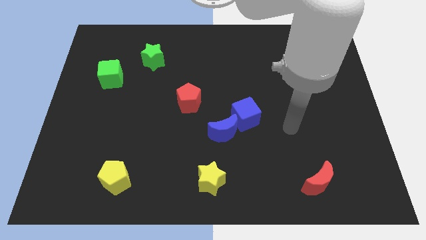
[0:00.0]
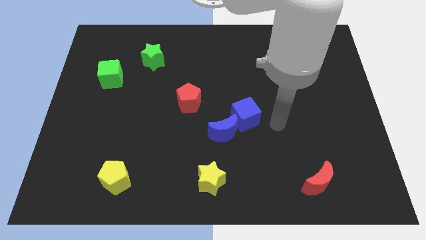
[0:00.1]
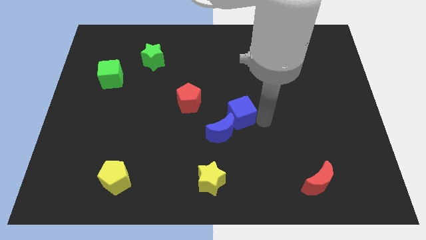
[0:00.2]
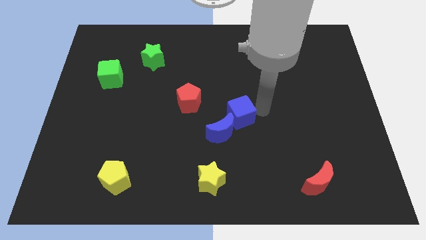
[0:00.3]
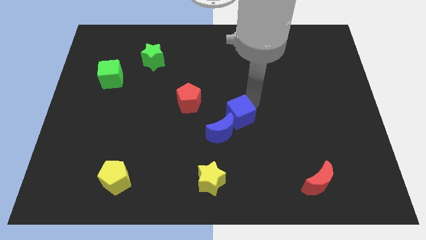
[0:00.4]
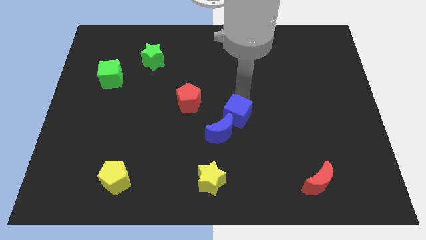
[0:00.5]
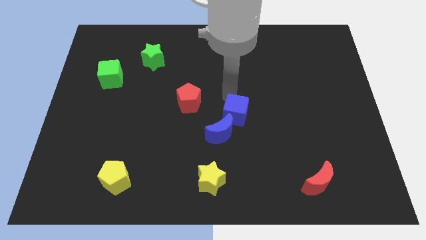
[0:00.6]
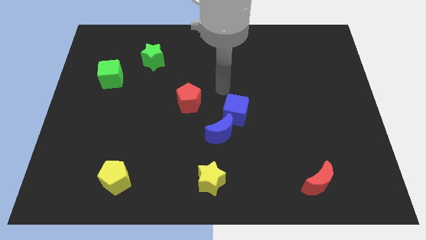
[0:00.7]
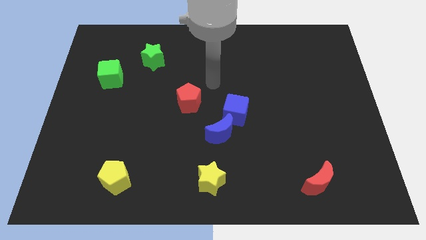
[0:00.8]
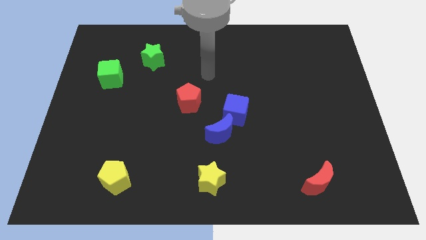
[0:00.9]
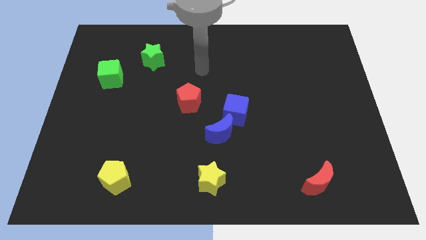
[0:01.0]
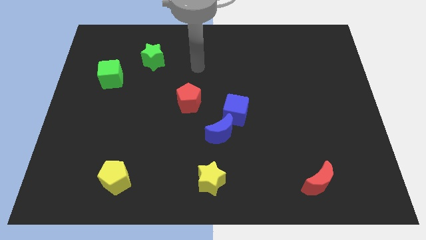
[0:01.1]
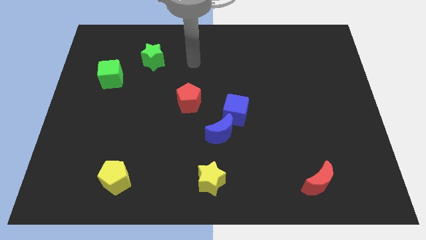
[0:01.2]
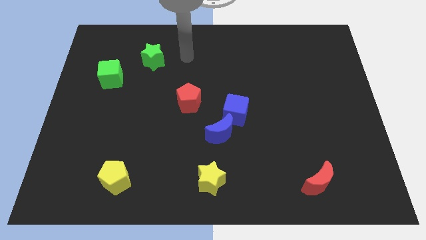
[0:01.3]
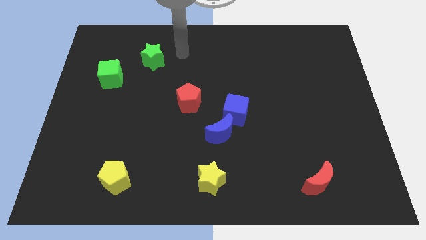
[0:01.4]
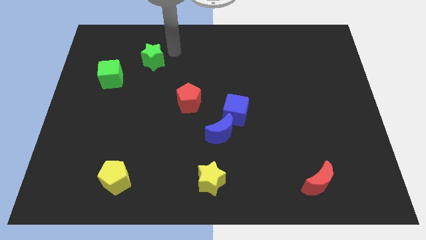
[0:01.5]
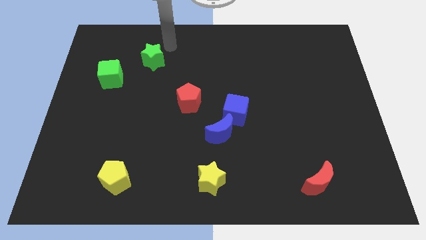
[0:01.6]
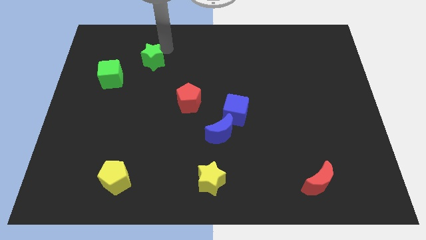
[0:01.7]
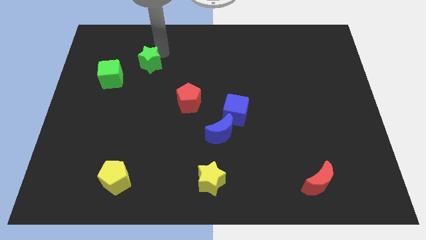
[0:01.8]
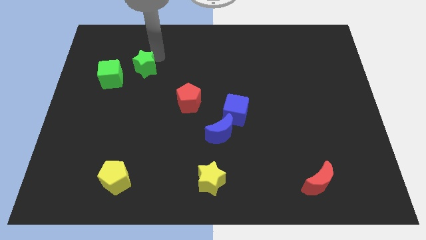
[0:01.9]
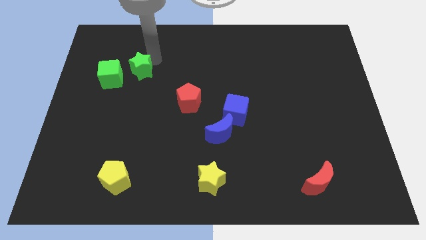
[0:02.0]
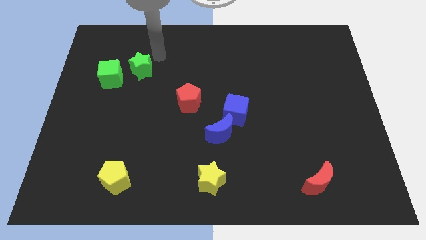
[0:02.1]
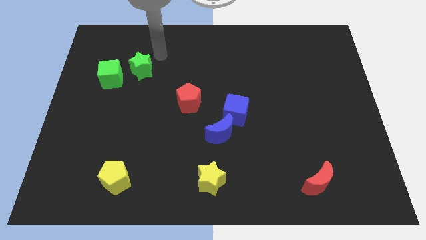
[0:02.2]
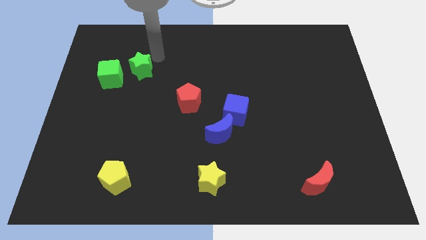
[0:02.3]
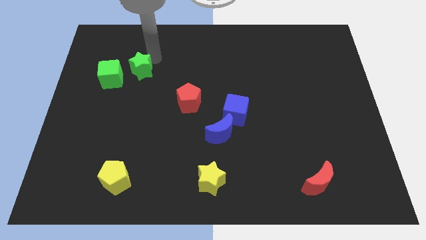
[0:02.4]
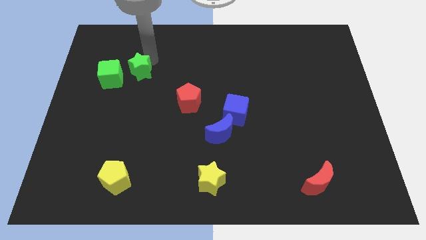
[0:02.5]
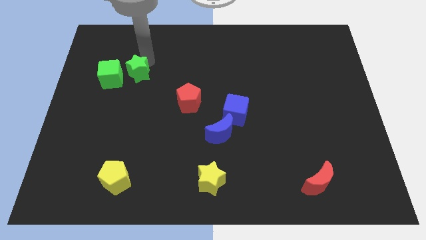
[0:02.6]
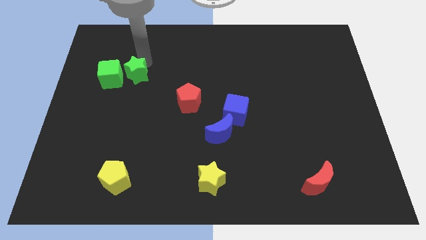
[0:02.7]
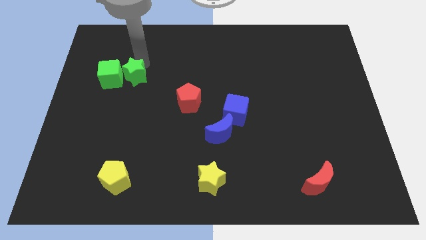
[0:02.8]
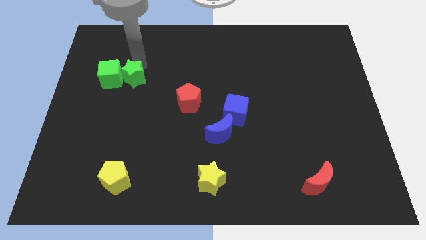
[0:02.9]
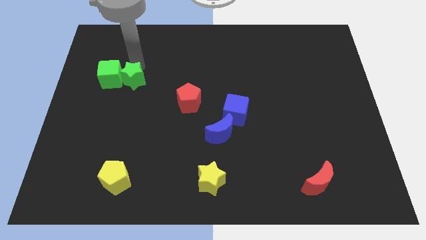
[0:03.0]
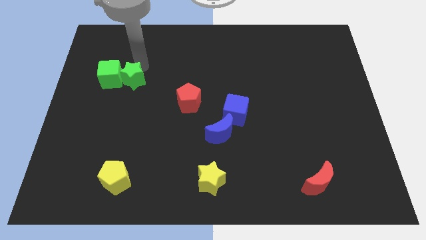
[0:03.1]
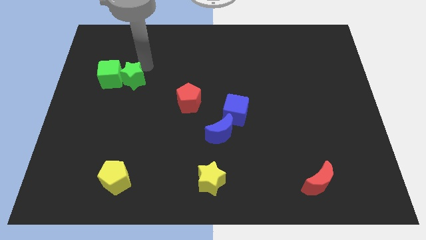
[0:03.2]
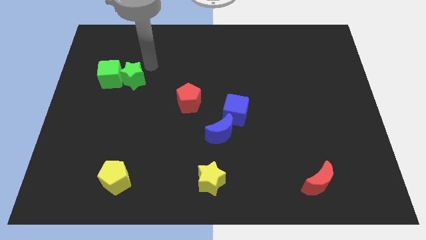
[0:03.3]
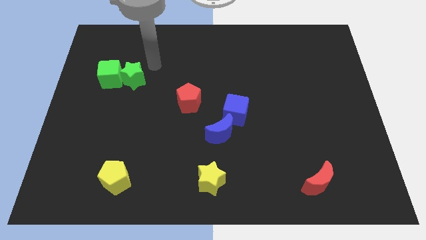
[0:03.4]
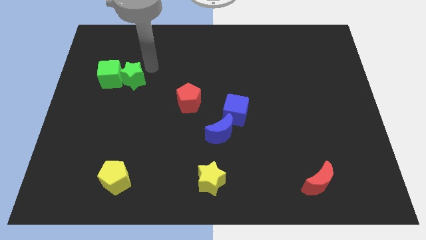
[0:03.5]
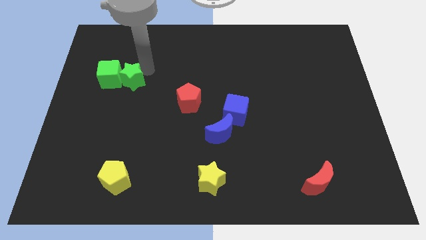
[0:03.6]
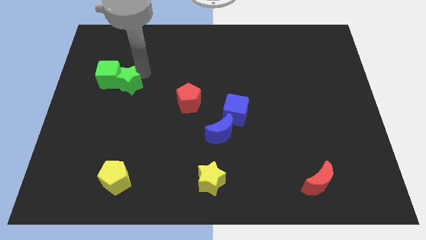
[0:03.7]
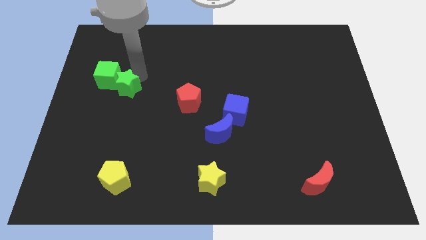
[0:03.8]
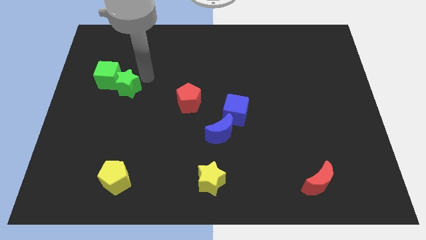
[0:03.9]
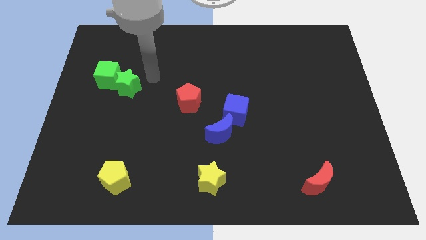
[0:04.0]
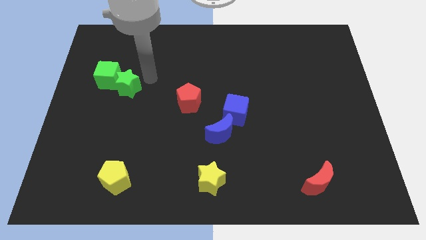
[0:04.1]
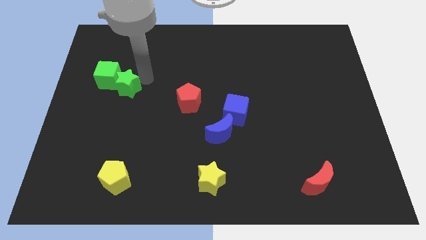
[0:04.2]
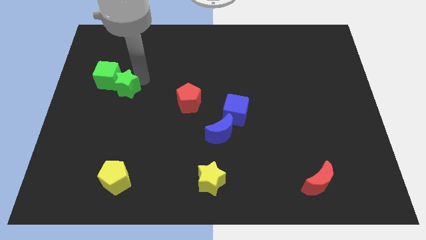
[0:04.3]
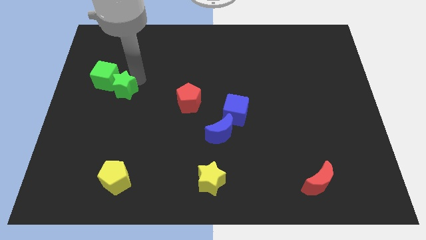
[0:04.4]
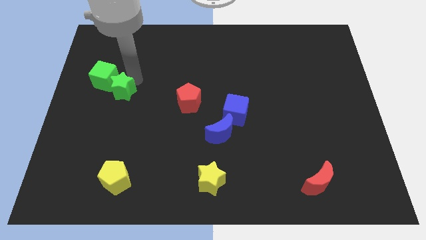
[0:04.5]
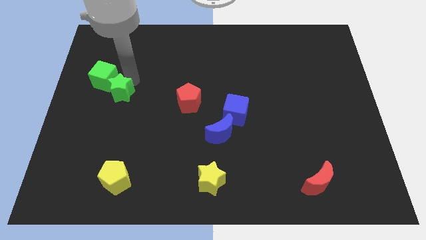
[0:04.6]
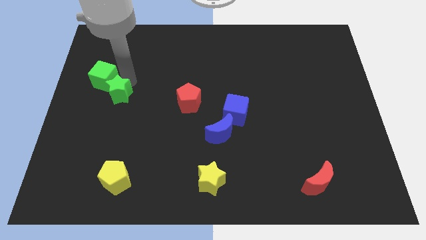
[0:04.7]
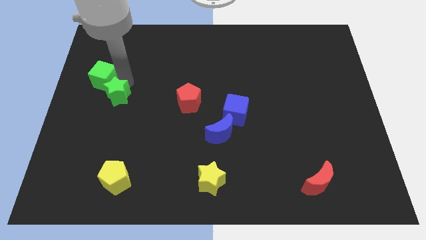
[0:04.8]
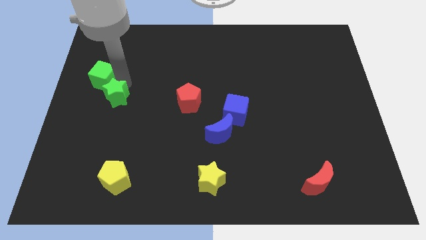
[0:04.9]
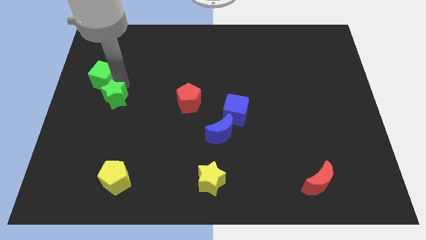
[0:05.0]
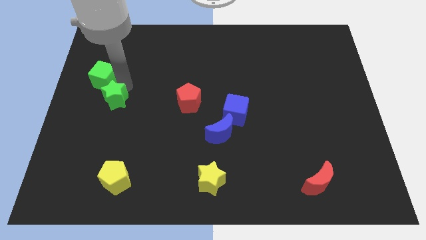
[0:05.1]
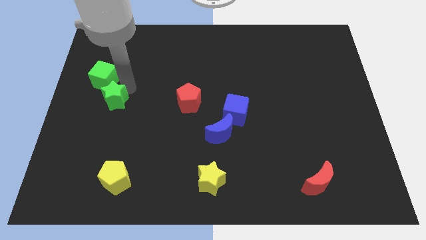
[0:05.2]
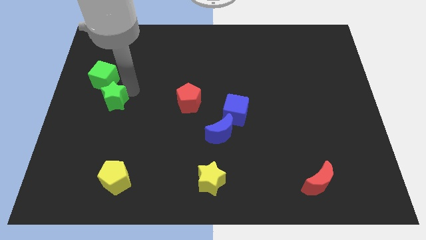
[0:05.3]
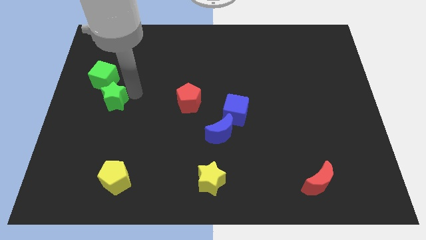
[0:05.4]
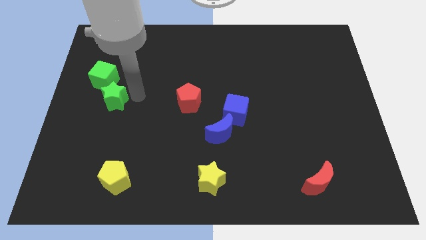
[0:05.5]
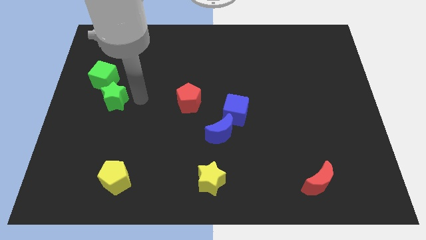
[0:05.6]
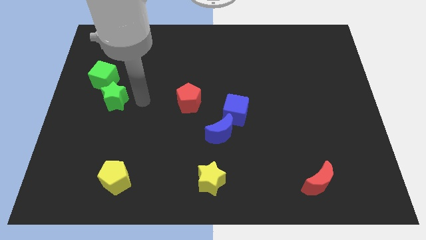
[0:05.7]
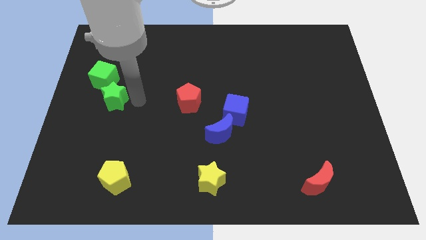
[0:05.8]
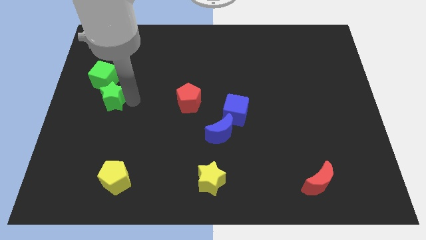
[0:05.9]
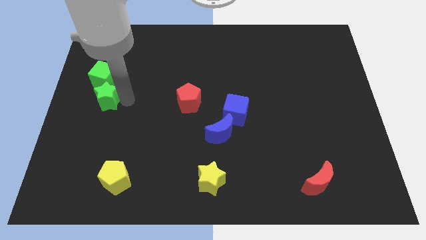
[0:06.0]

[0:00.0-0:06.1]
move the green star to the center left
